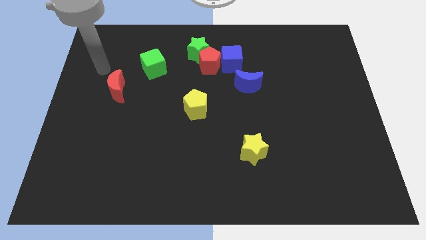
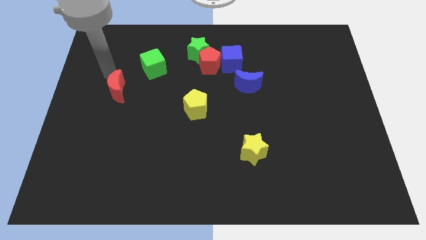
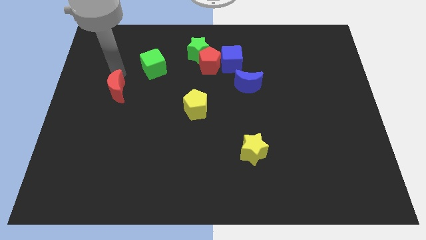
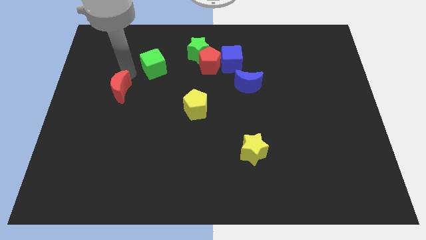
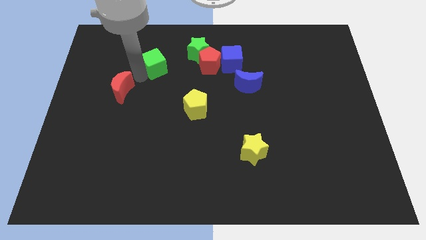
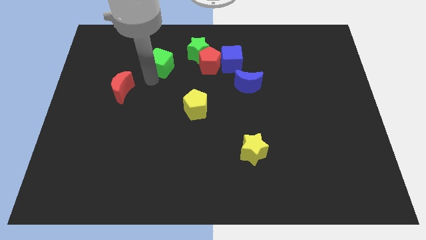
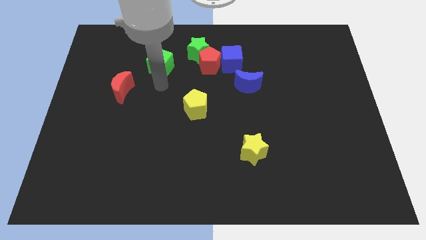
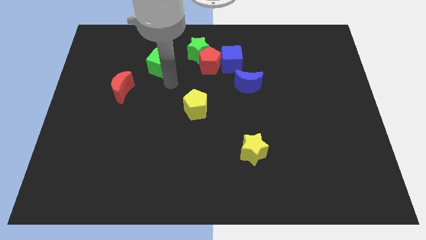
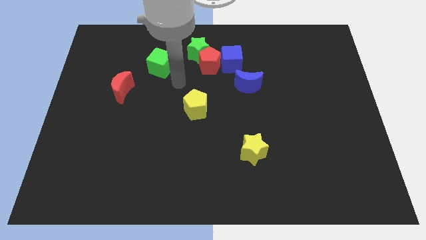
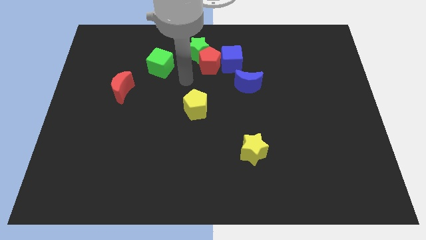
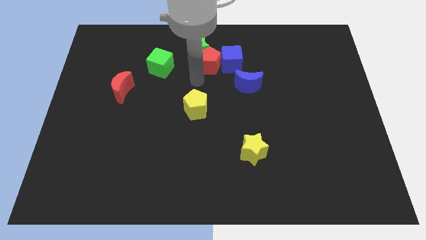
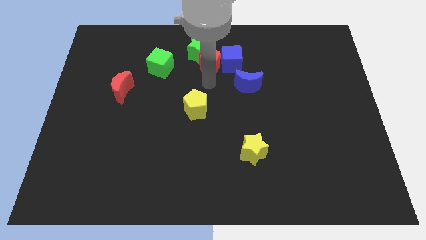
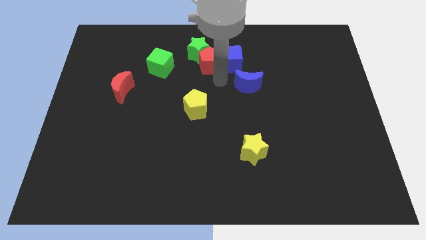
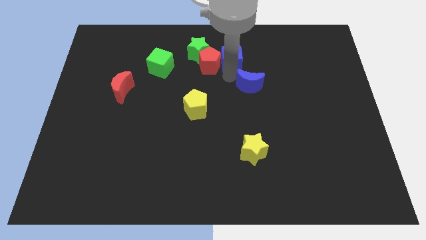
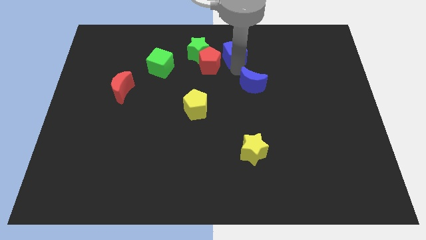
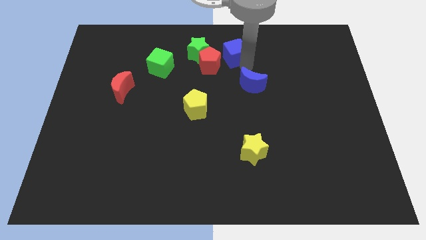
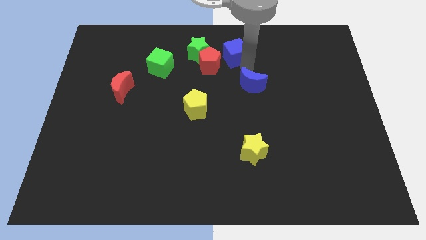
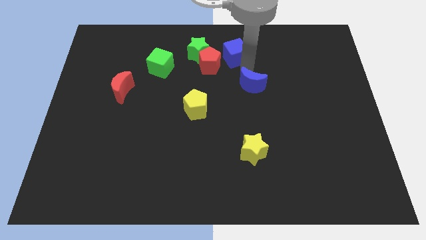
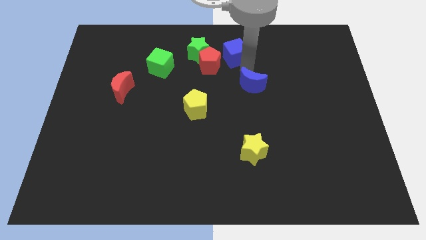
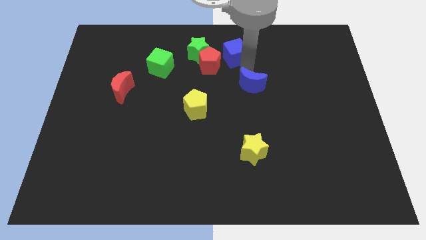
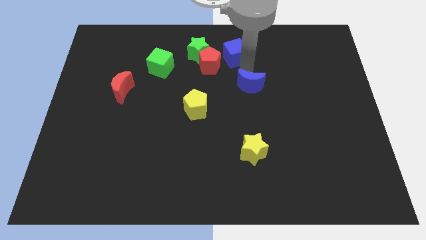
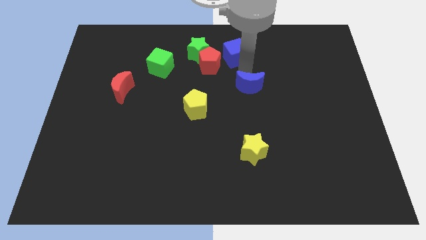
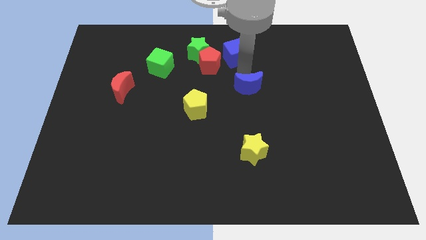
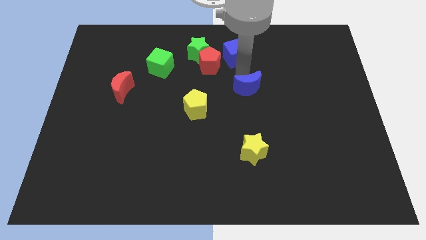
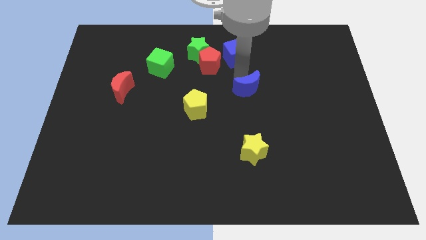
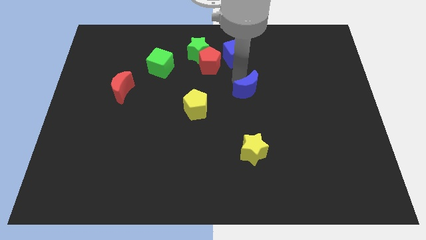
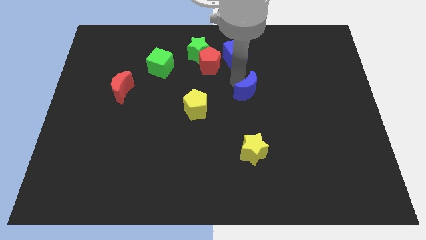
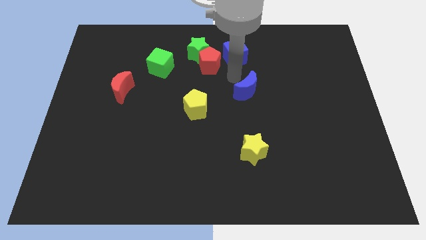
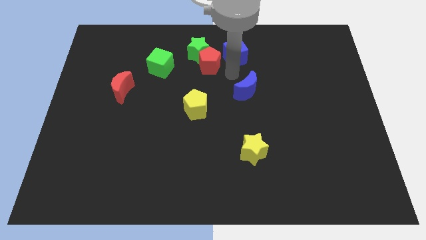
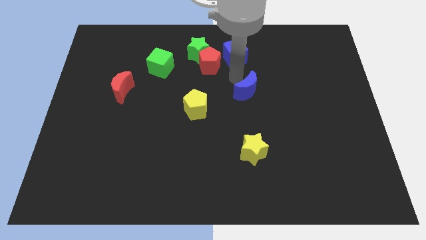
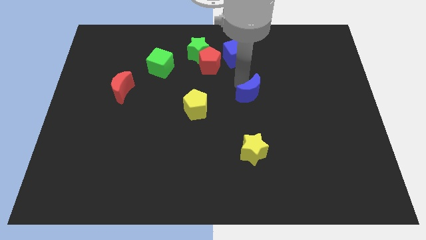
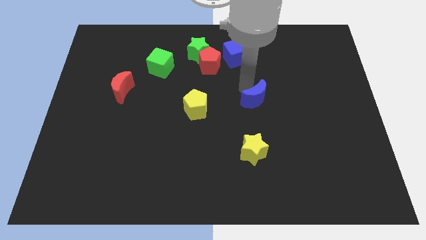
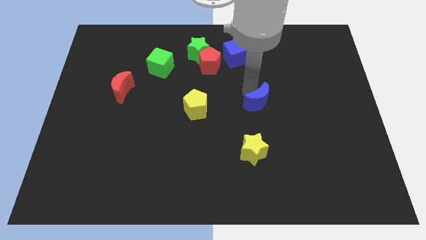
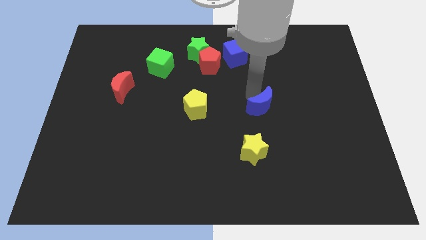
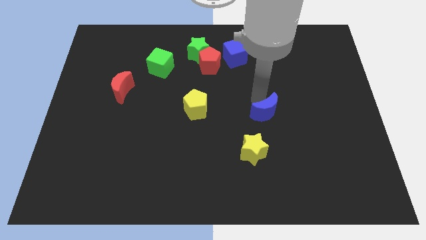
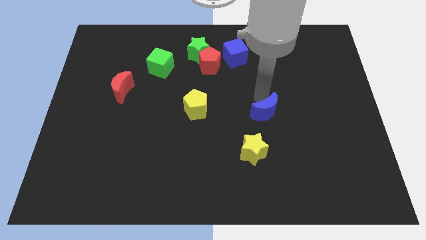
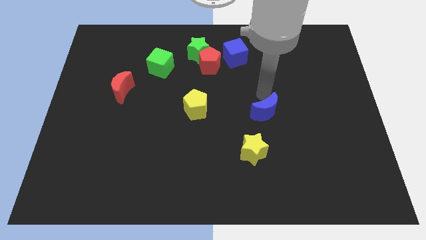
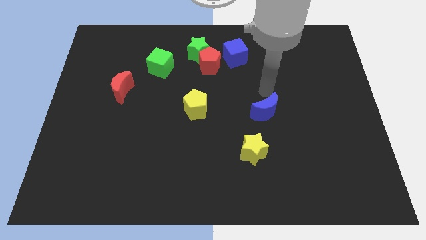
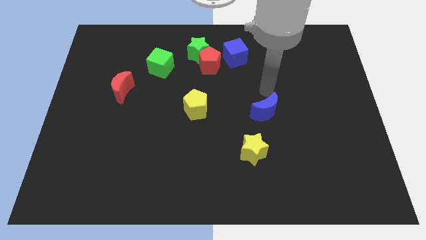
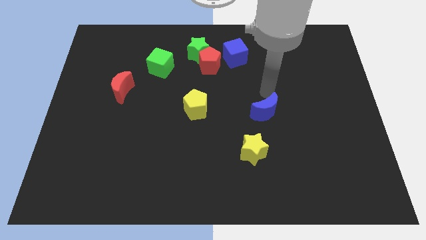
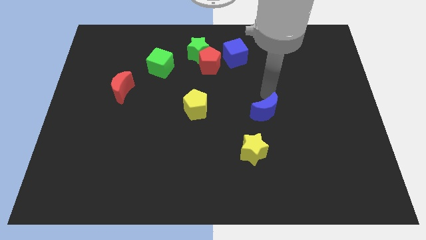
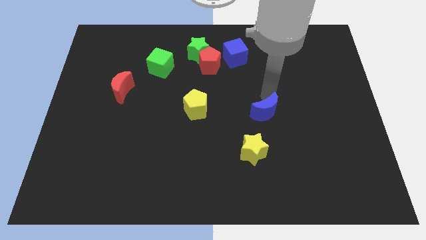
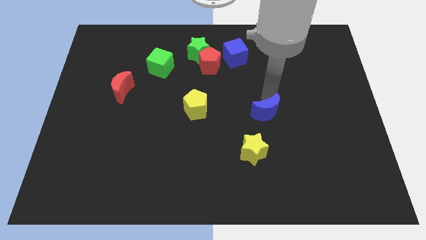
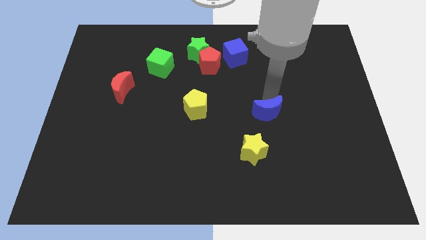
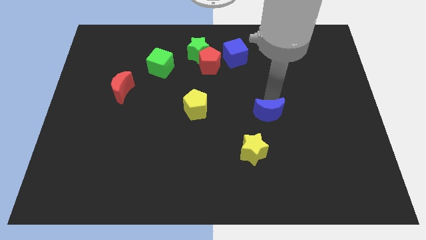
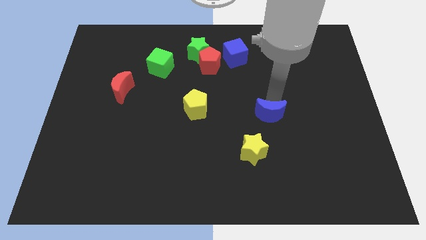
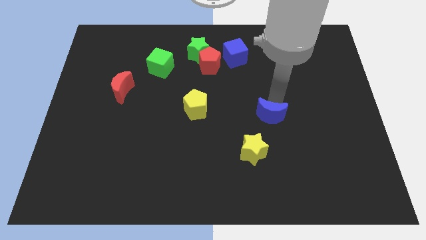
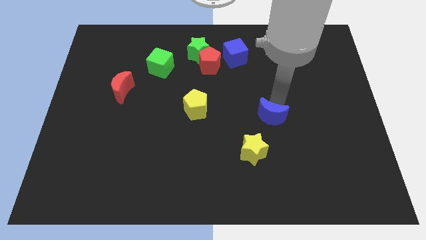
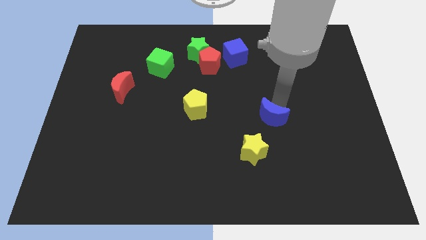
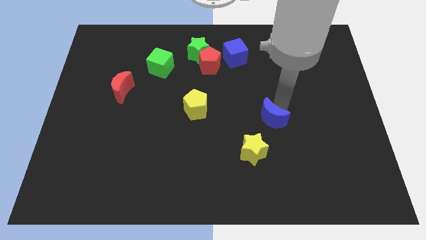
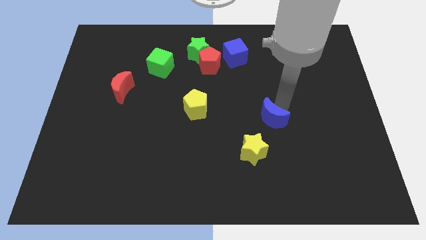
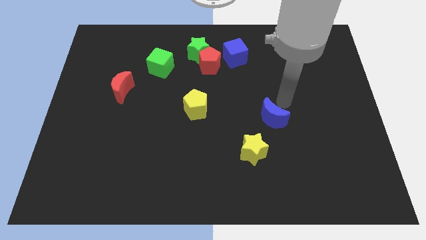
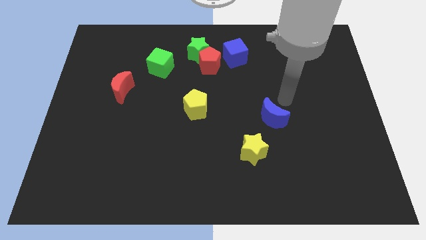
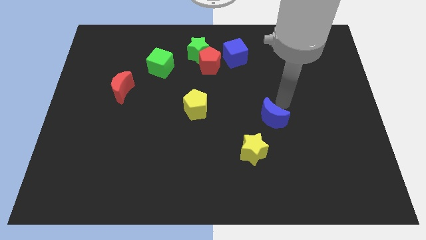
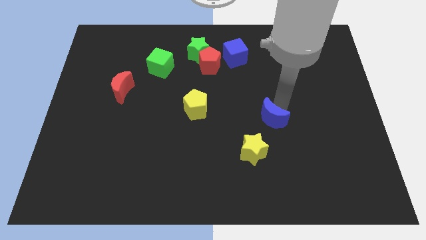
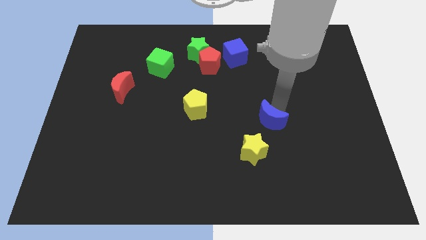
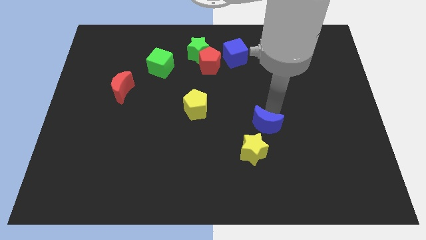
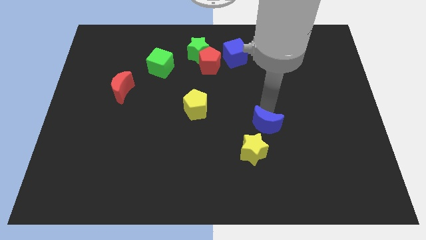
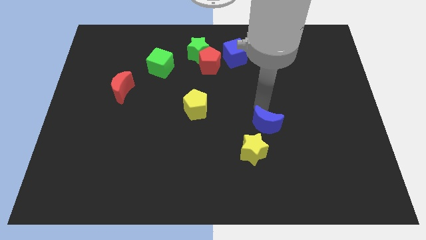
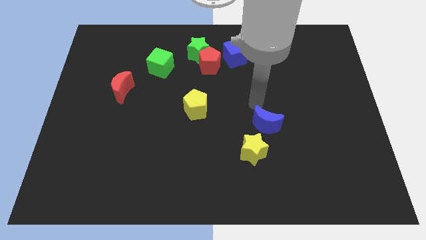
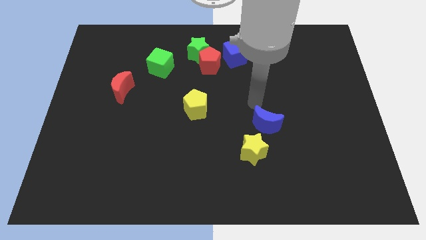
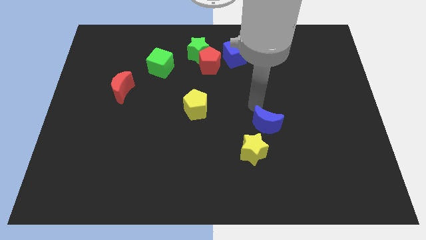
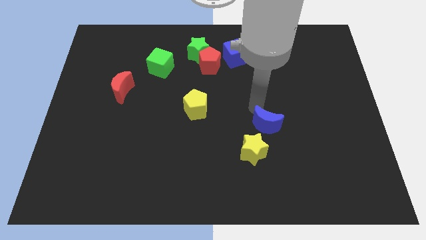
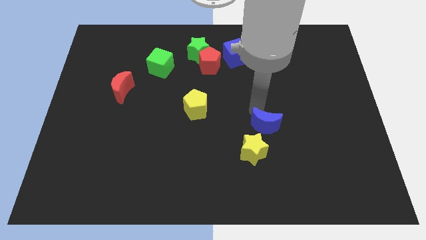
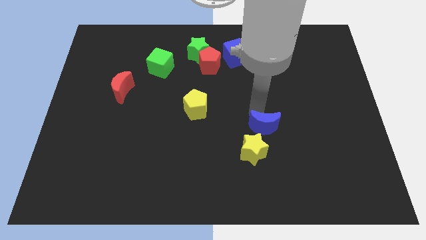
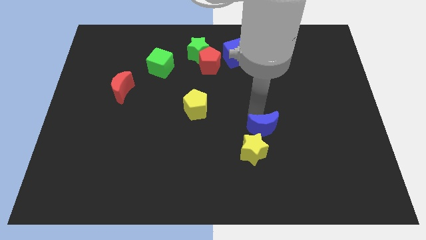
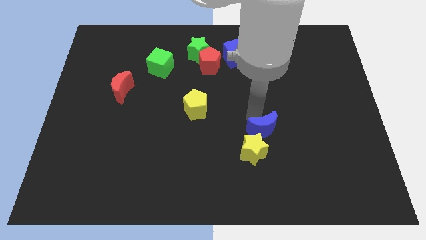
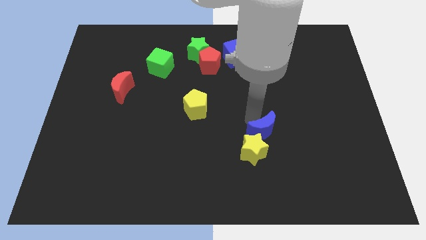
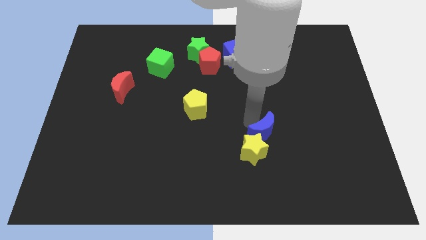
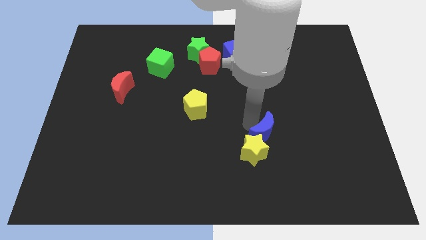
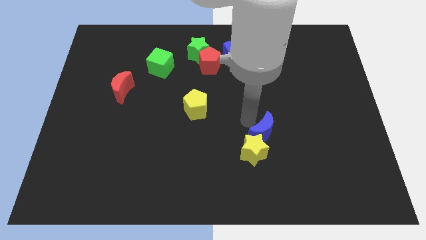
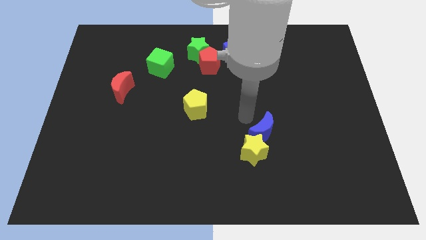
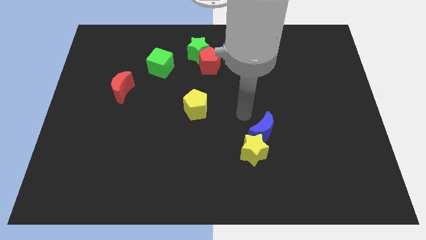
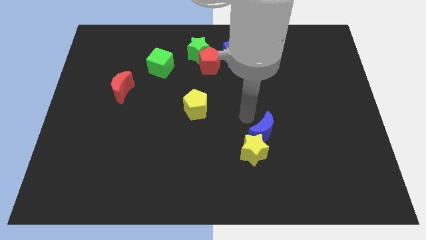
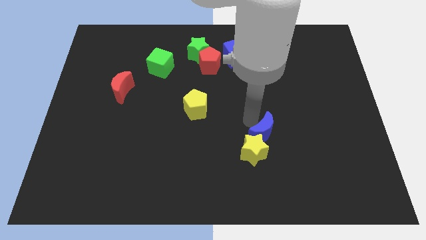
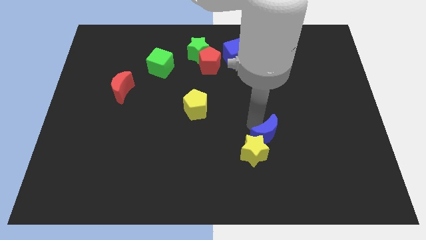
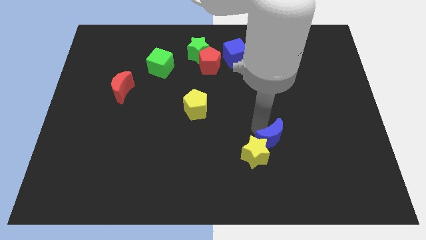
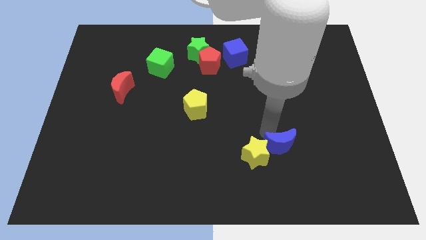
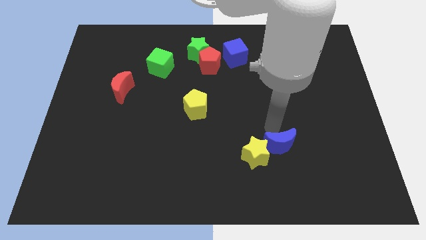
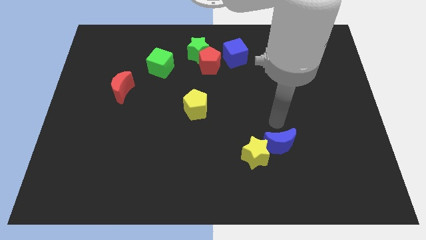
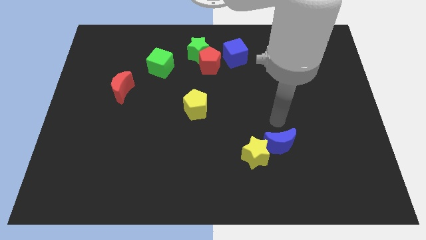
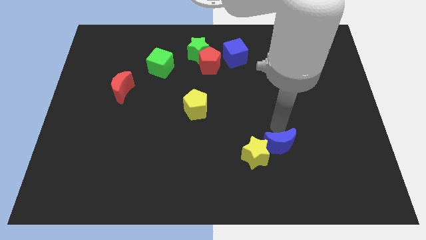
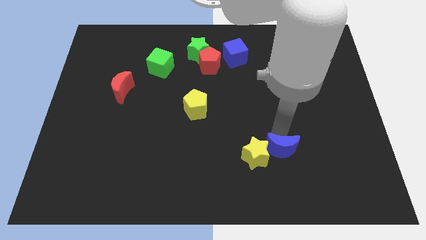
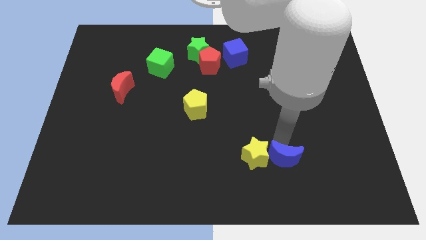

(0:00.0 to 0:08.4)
move the blue moon to the bottom right of the yellow star
